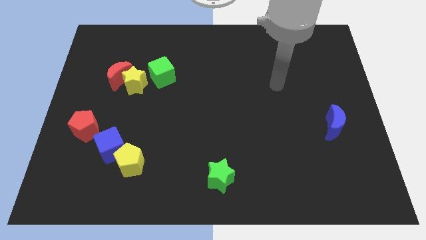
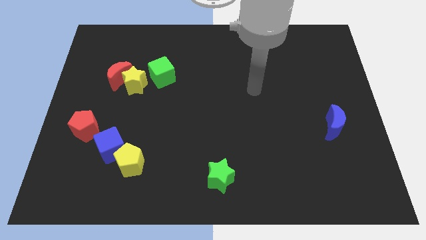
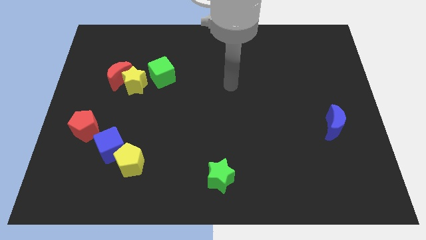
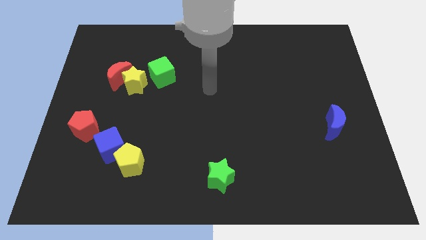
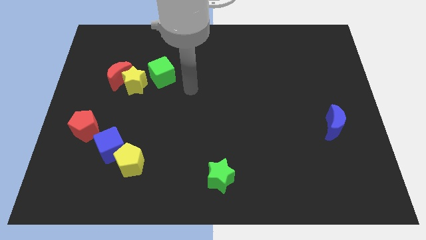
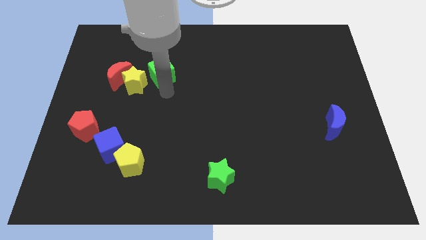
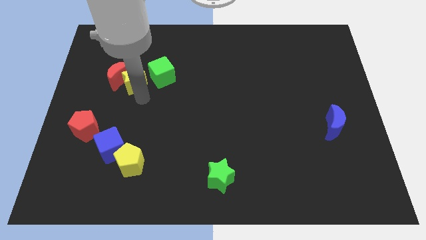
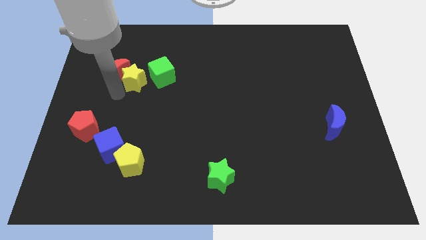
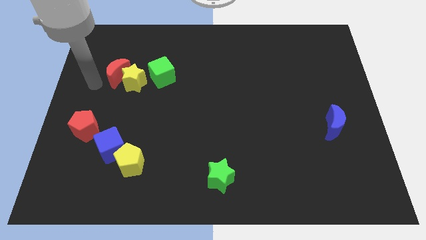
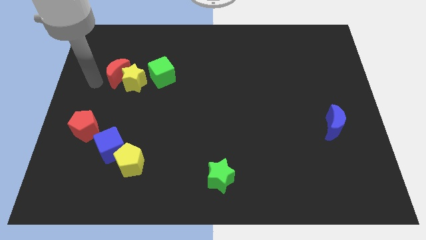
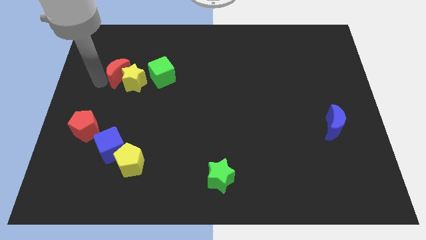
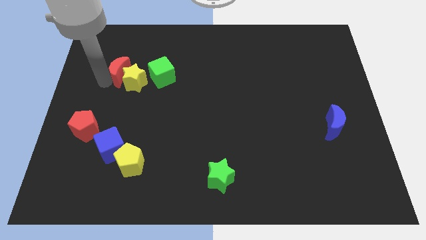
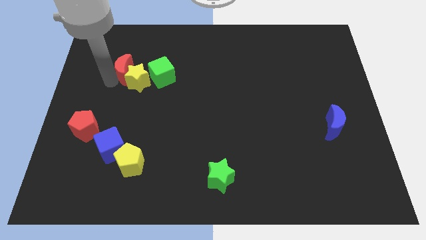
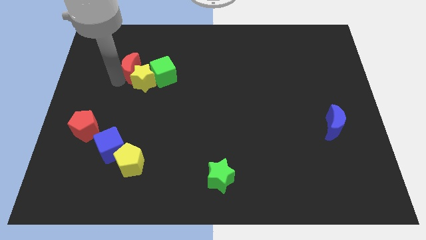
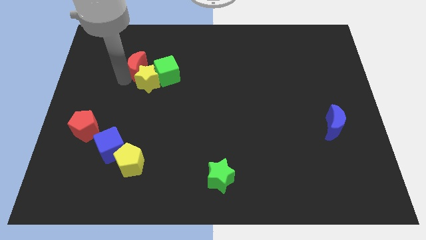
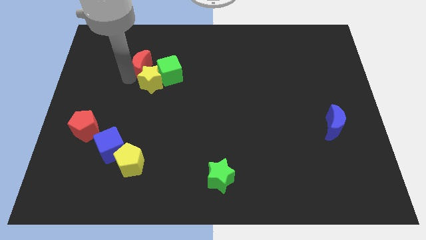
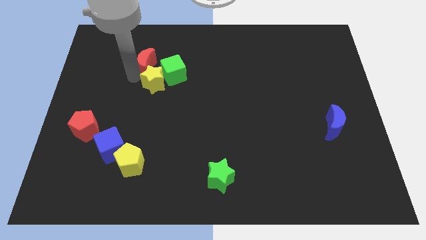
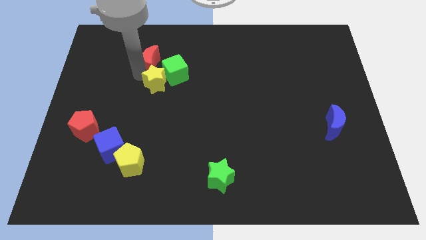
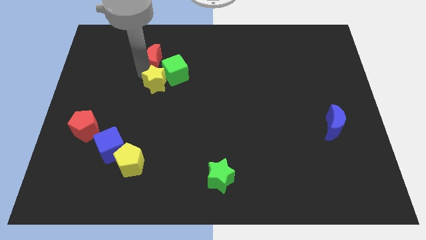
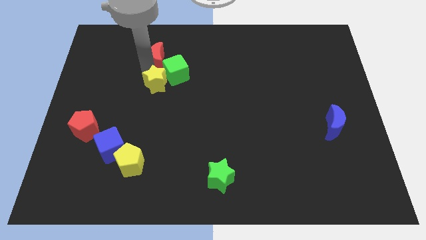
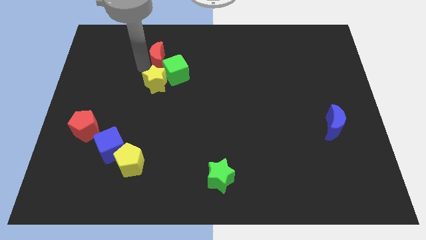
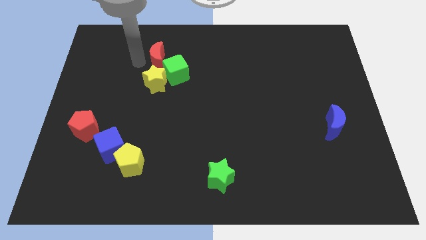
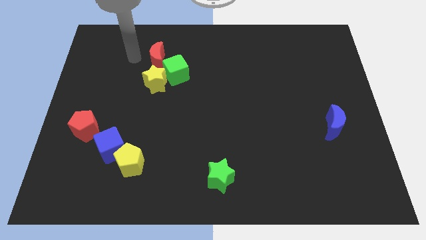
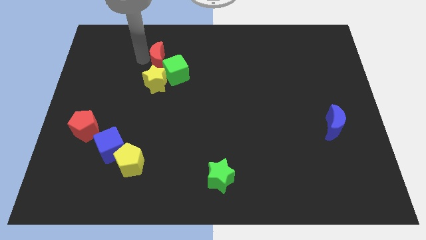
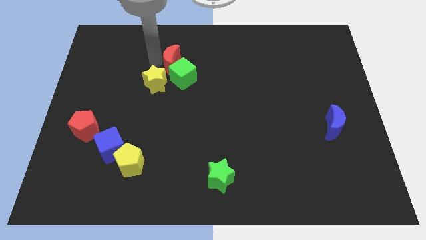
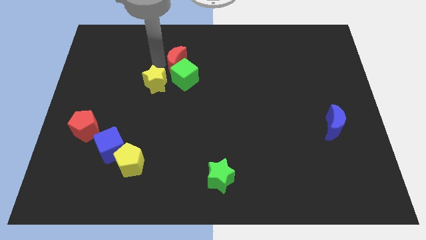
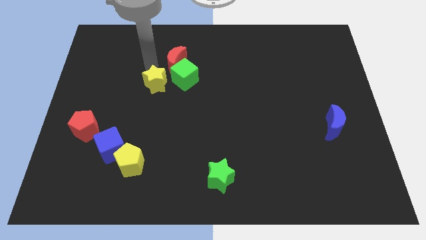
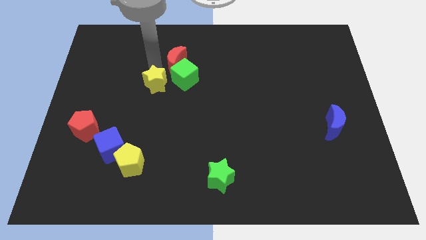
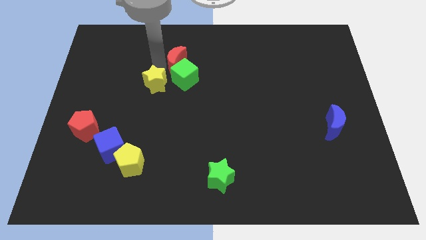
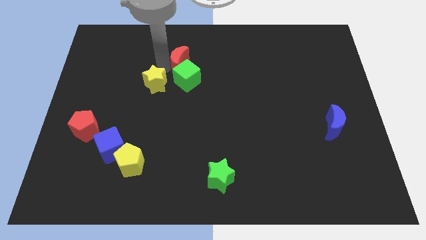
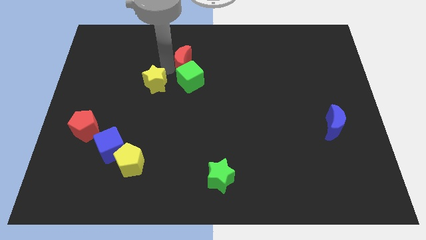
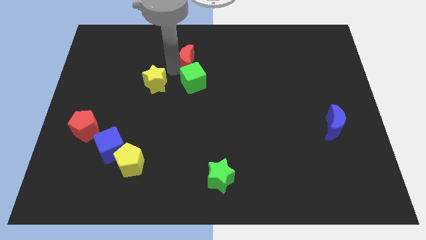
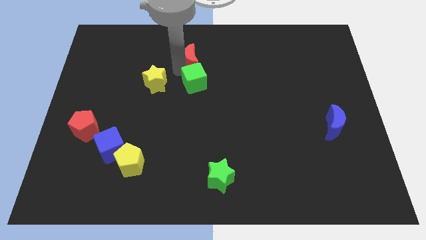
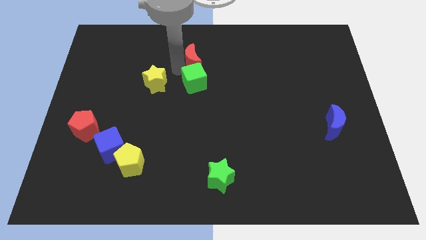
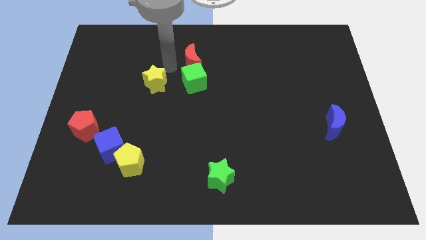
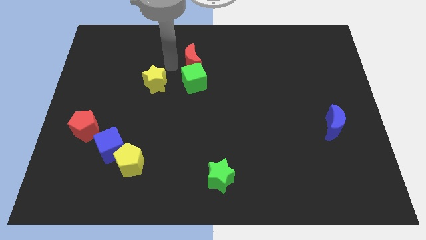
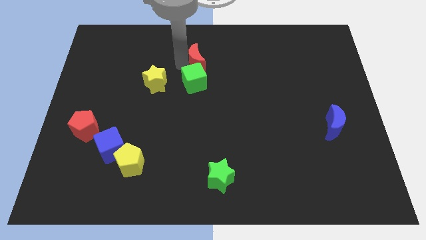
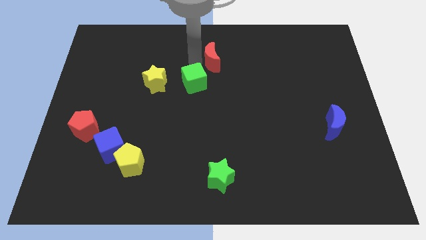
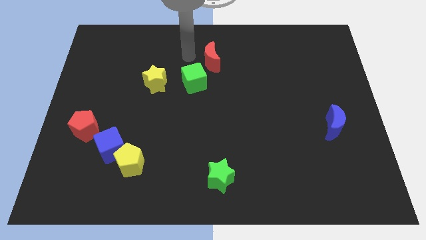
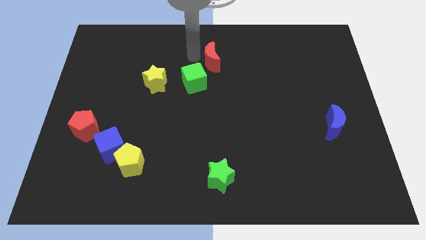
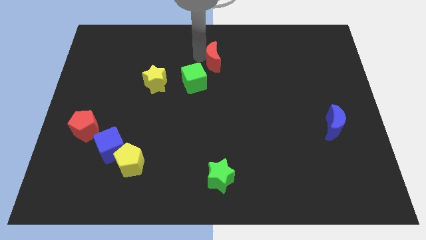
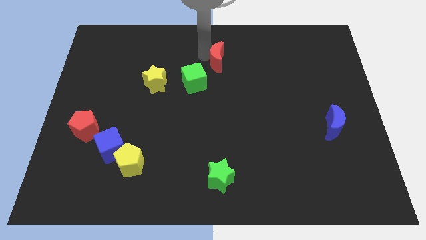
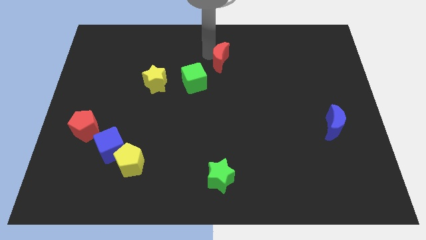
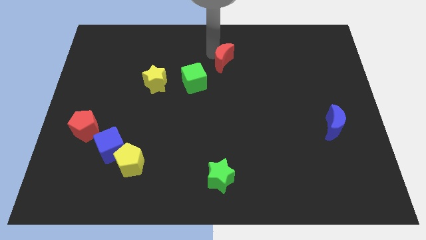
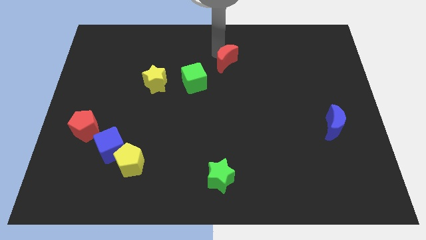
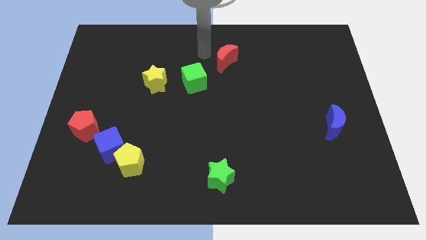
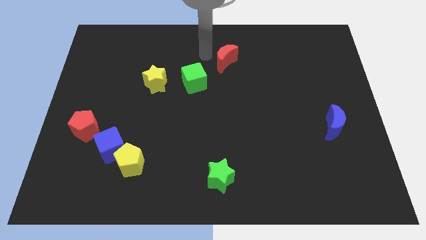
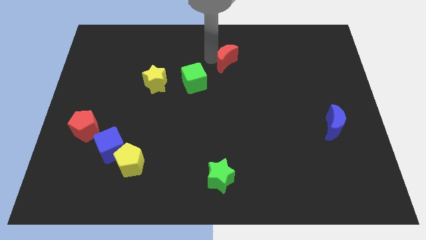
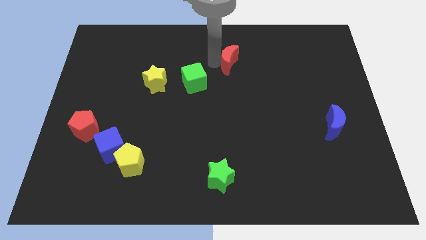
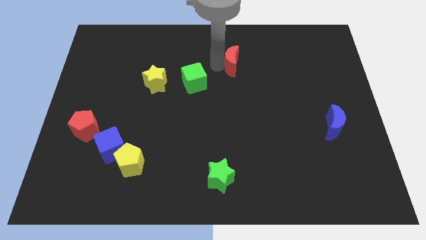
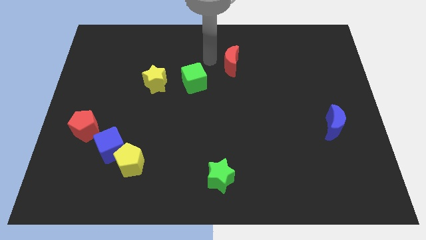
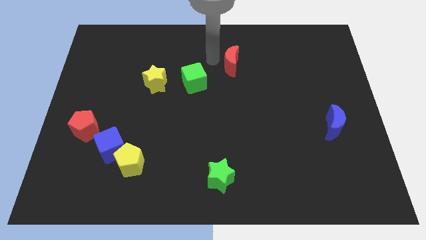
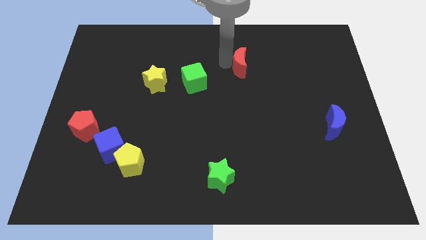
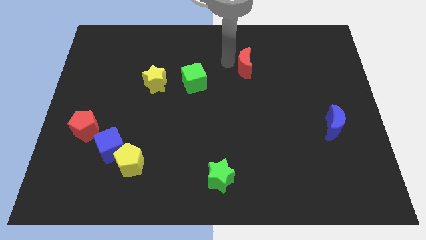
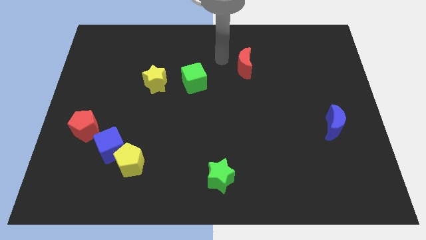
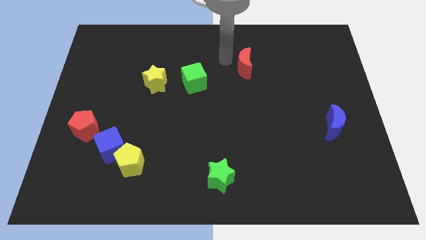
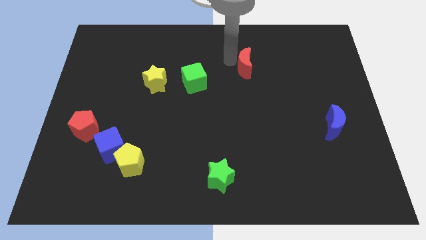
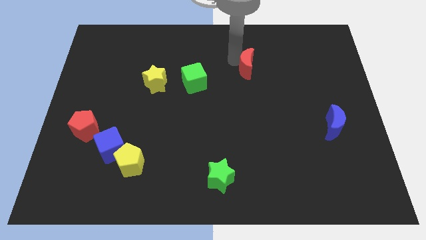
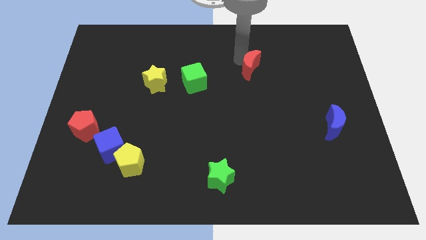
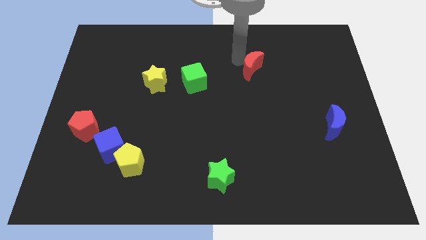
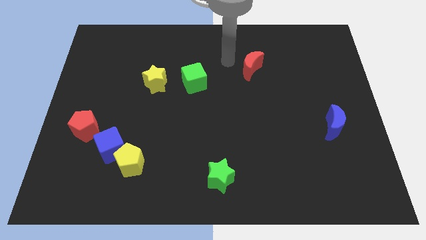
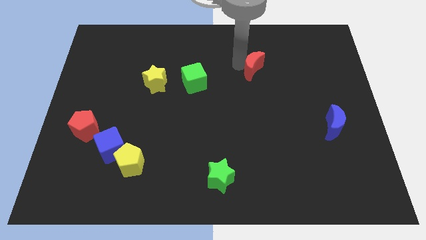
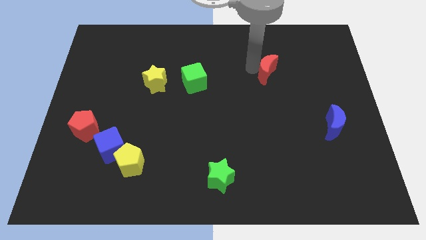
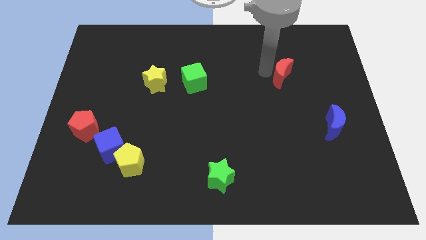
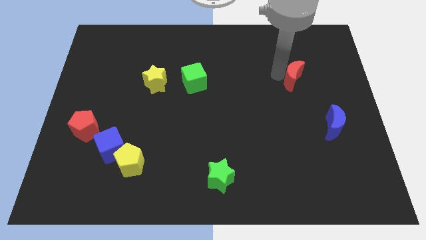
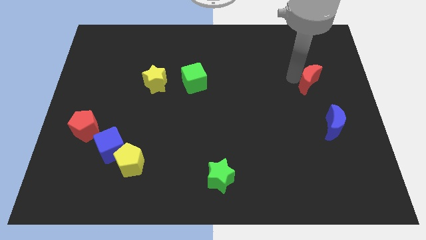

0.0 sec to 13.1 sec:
put the red moon to the top side of the blue moon
